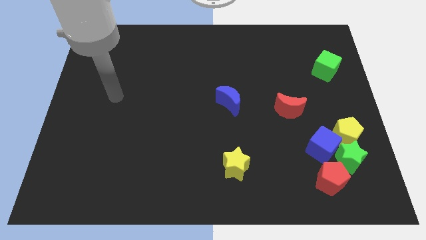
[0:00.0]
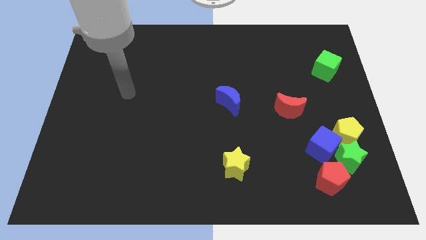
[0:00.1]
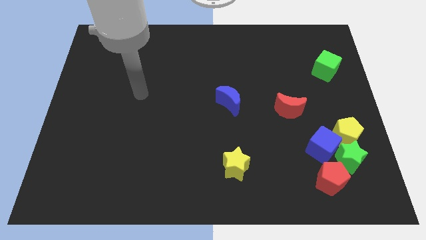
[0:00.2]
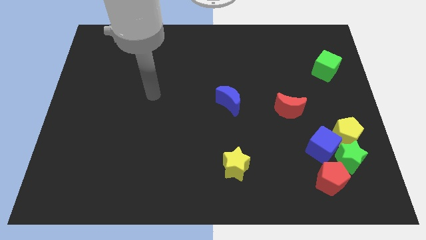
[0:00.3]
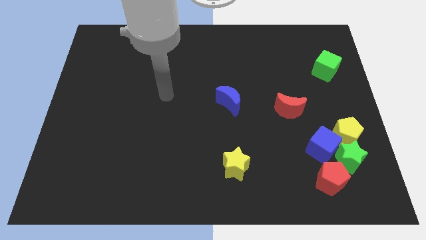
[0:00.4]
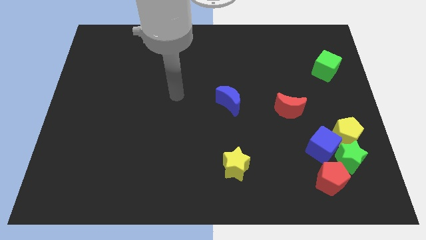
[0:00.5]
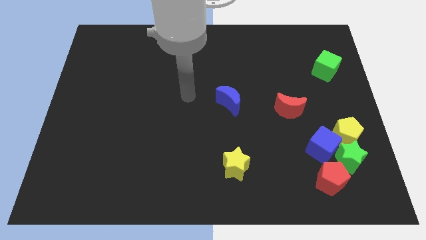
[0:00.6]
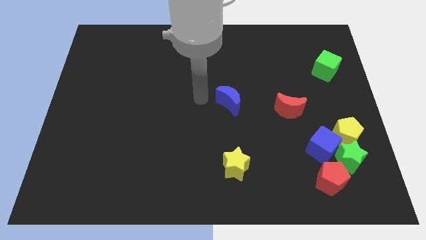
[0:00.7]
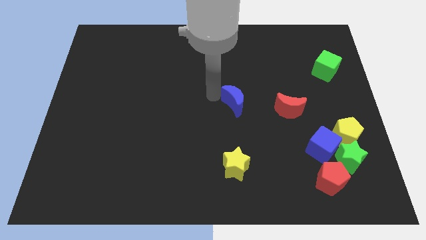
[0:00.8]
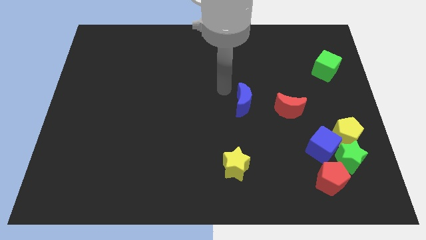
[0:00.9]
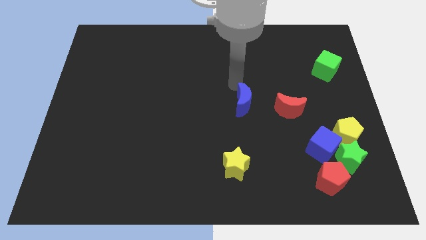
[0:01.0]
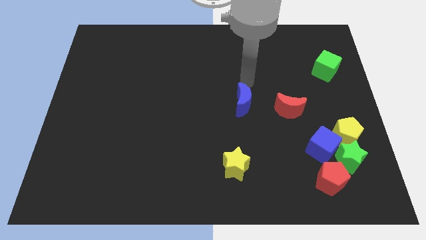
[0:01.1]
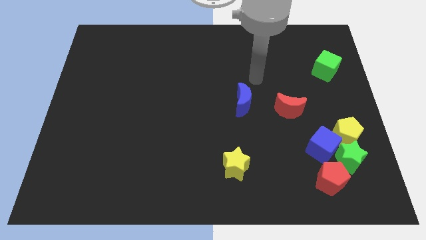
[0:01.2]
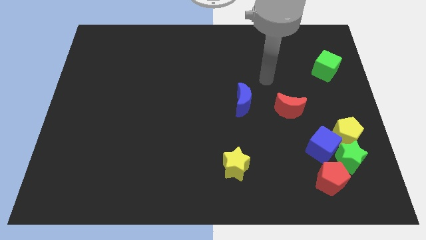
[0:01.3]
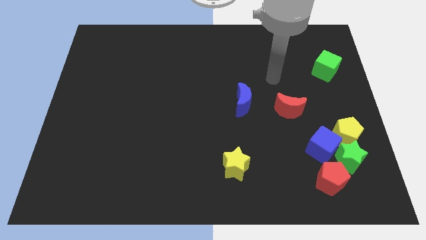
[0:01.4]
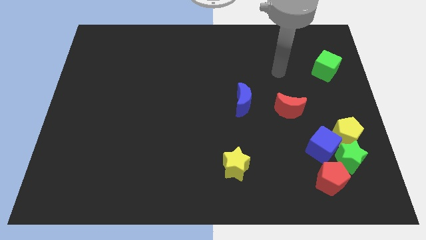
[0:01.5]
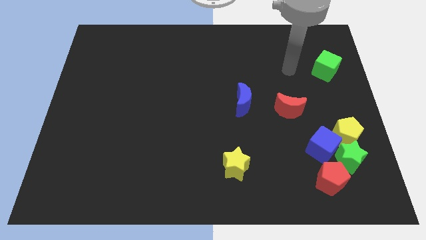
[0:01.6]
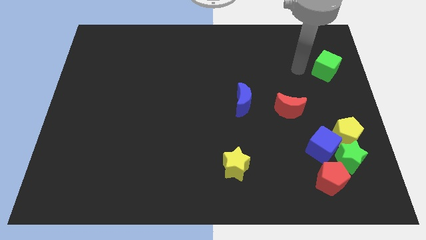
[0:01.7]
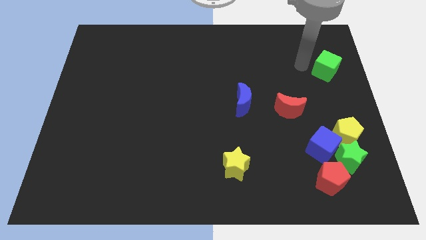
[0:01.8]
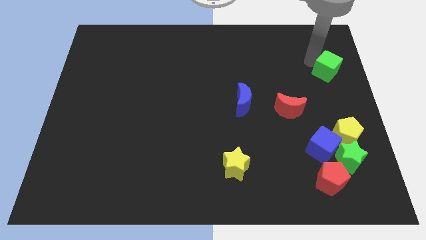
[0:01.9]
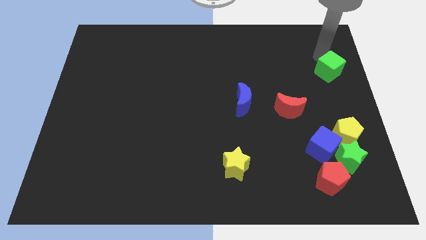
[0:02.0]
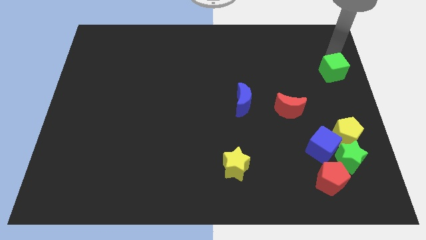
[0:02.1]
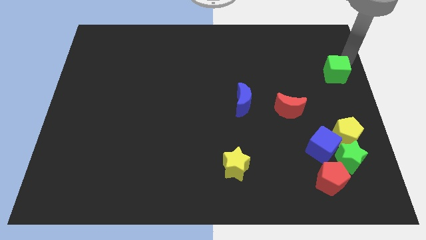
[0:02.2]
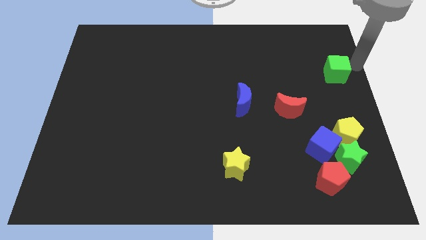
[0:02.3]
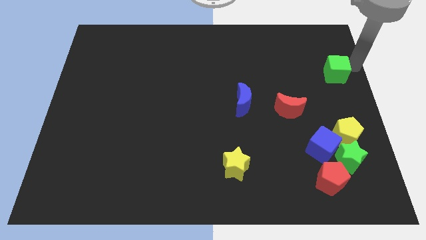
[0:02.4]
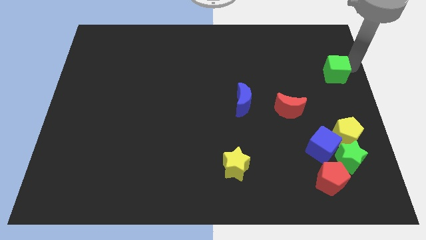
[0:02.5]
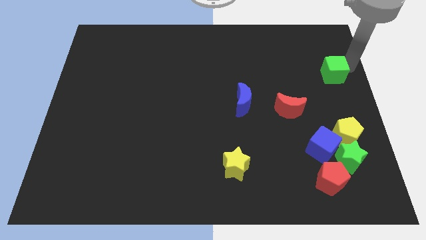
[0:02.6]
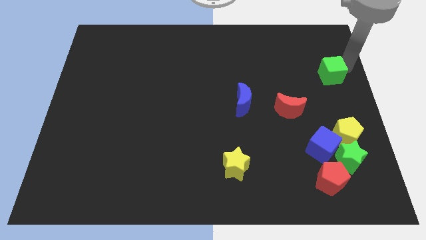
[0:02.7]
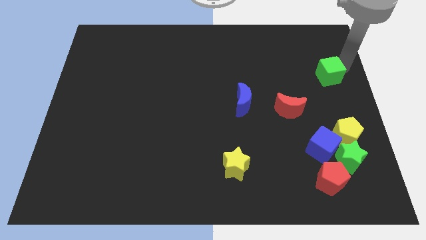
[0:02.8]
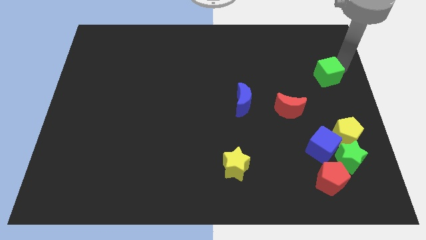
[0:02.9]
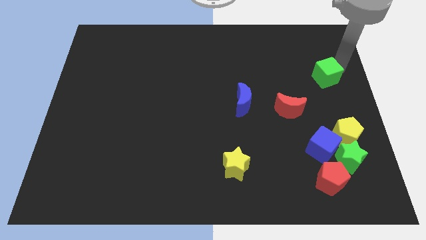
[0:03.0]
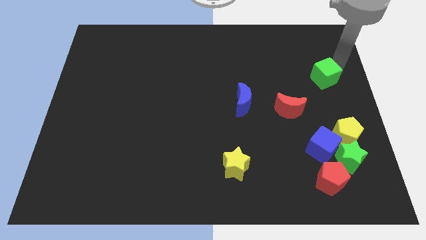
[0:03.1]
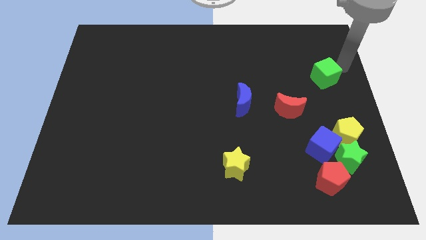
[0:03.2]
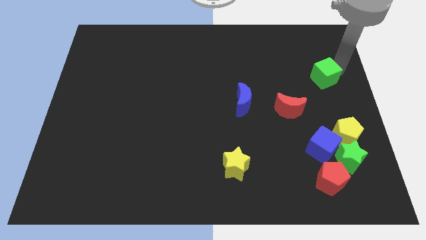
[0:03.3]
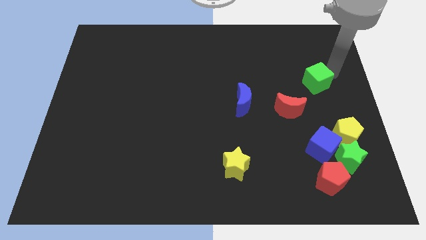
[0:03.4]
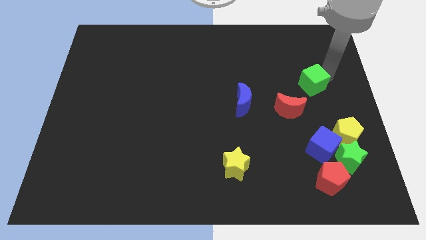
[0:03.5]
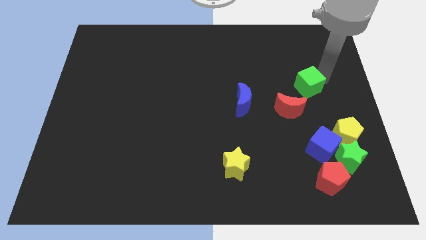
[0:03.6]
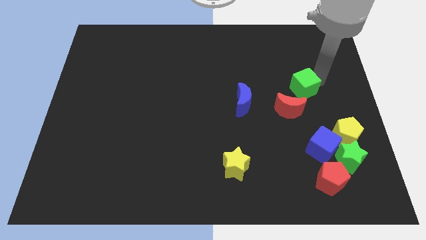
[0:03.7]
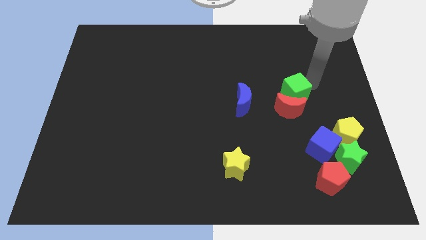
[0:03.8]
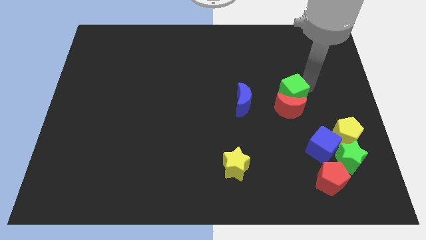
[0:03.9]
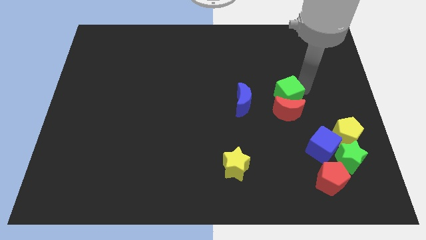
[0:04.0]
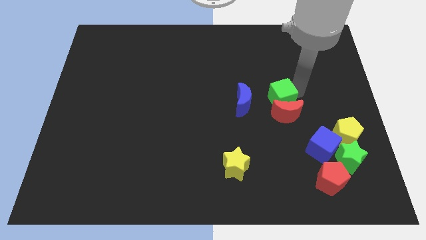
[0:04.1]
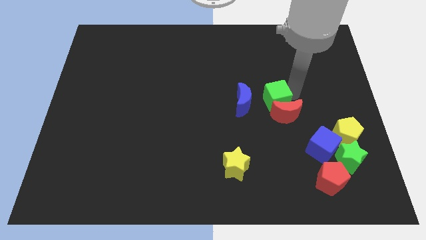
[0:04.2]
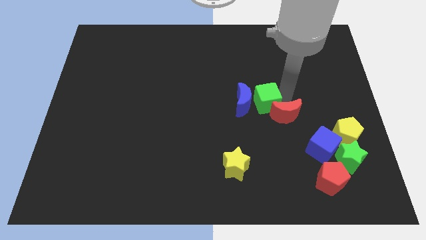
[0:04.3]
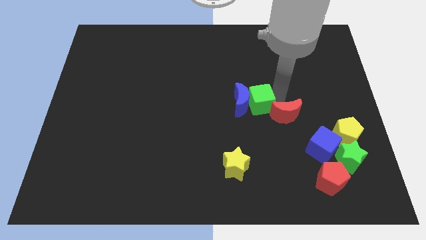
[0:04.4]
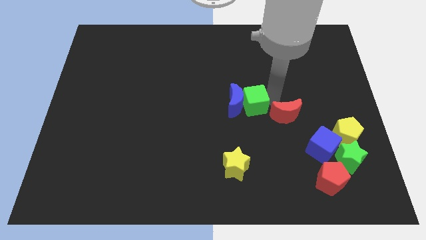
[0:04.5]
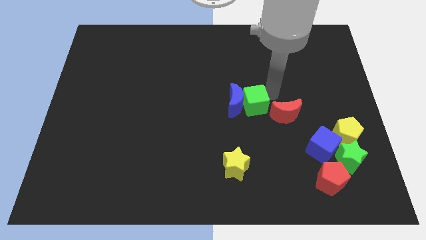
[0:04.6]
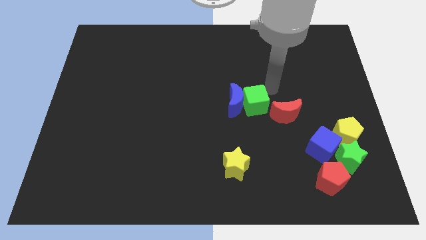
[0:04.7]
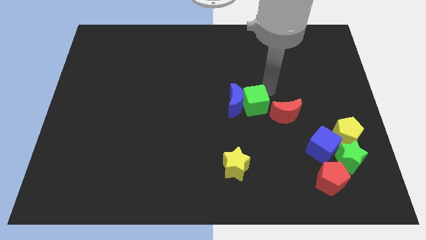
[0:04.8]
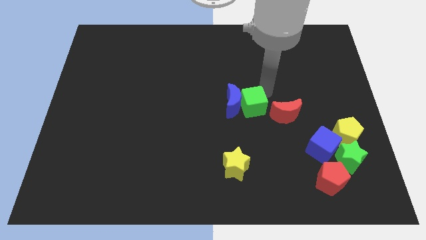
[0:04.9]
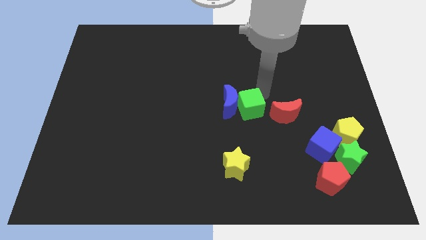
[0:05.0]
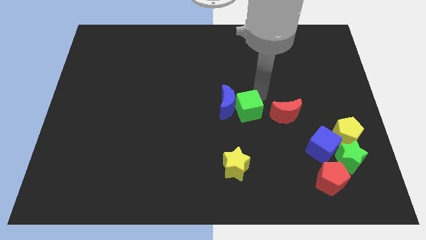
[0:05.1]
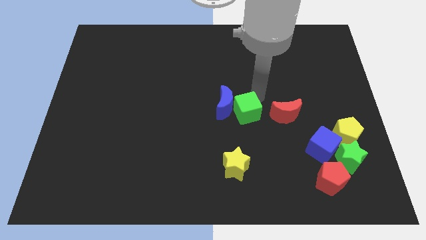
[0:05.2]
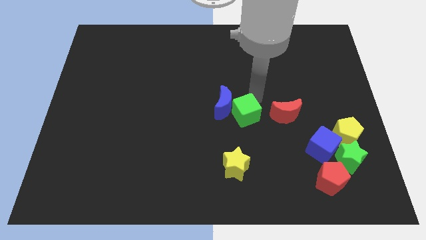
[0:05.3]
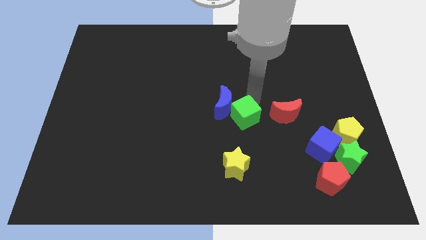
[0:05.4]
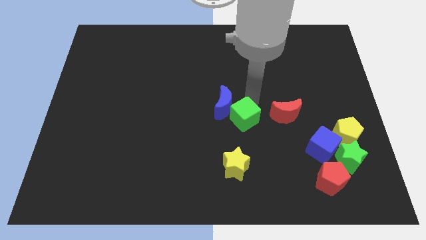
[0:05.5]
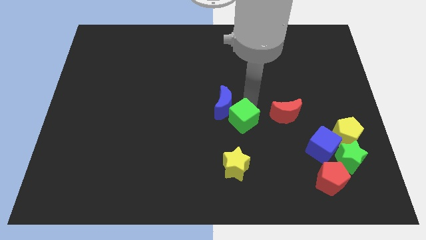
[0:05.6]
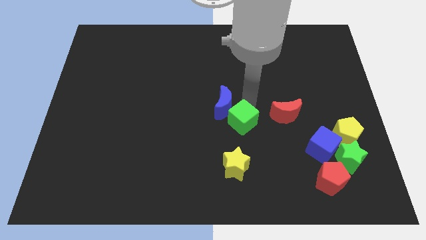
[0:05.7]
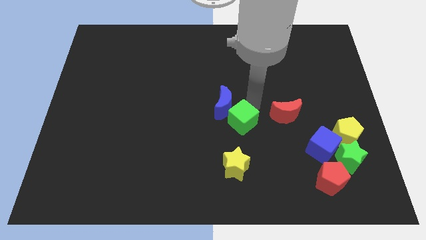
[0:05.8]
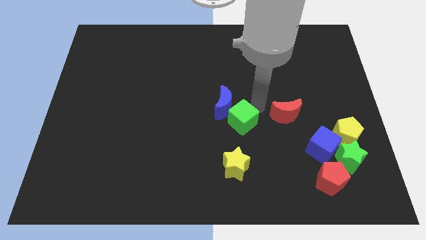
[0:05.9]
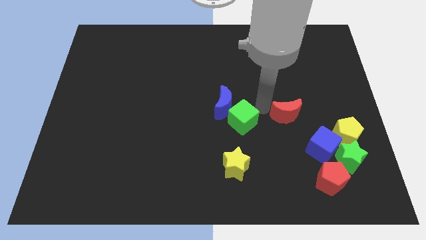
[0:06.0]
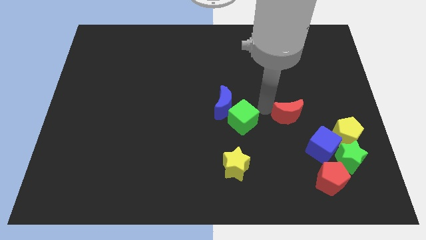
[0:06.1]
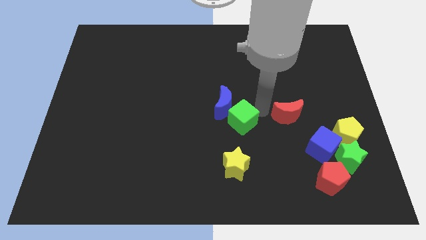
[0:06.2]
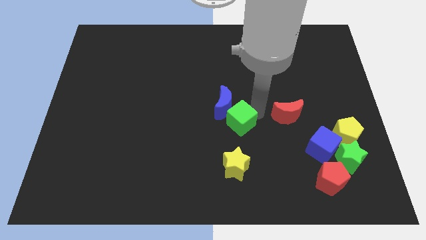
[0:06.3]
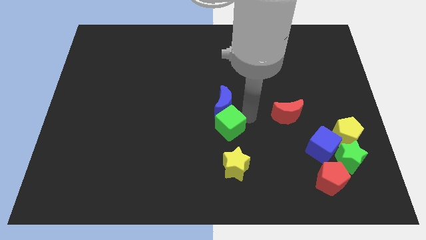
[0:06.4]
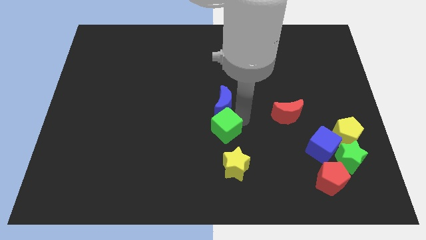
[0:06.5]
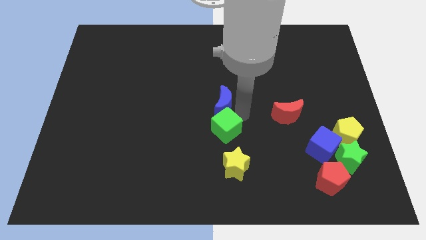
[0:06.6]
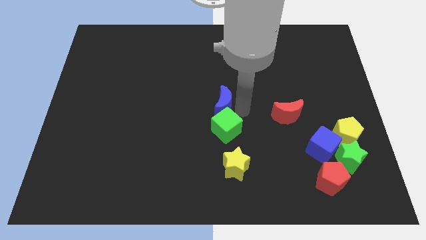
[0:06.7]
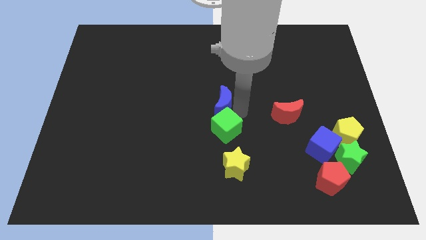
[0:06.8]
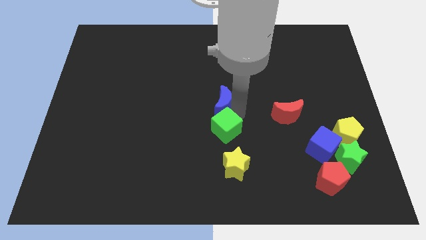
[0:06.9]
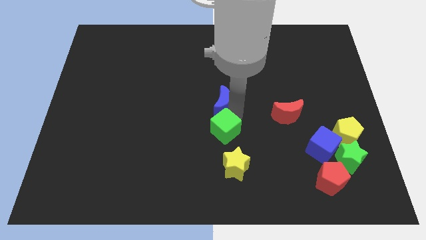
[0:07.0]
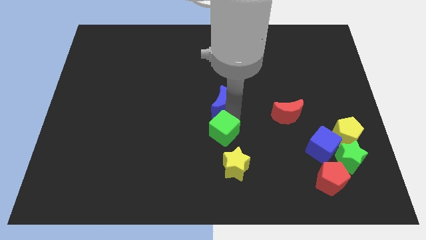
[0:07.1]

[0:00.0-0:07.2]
push the green cube to the top left side of the yellow star
